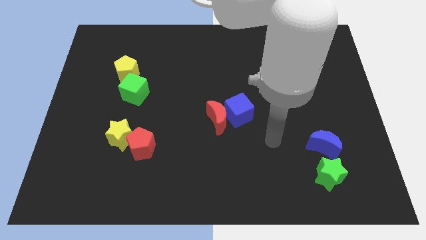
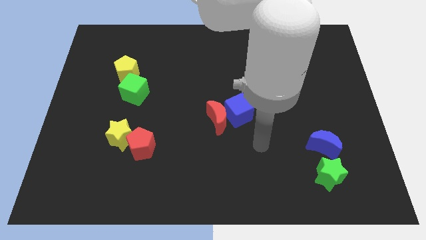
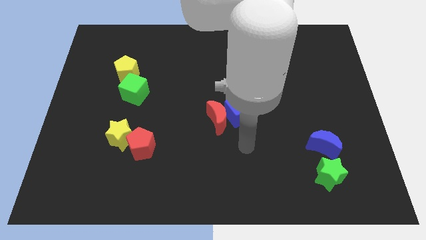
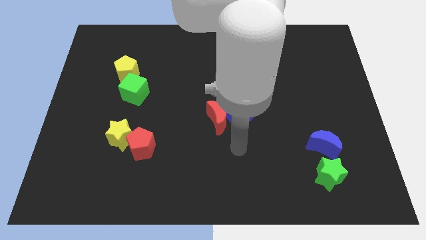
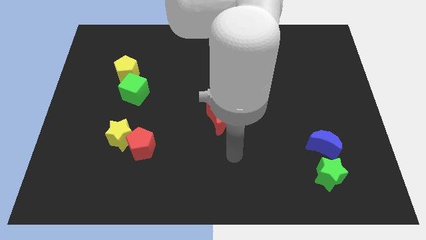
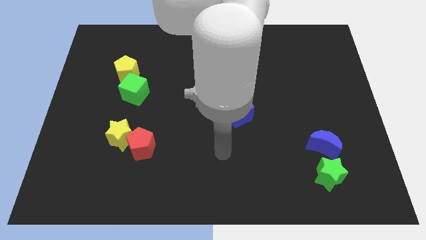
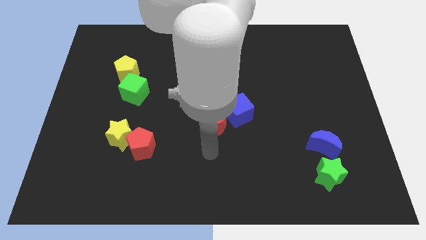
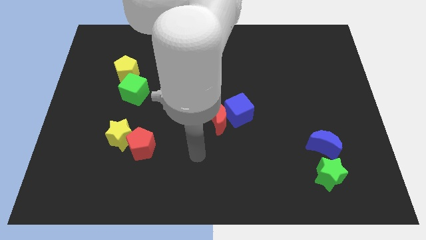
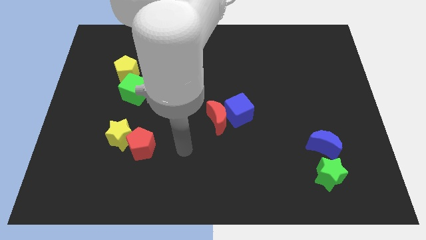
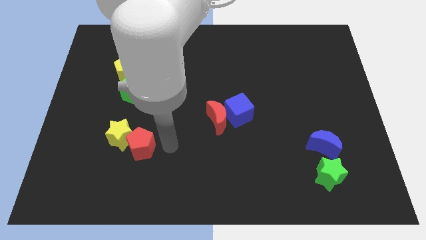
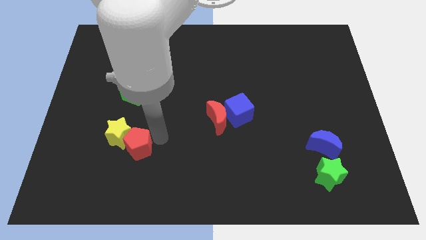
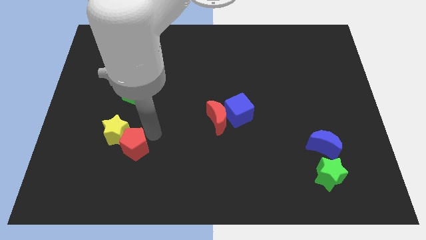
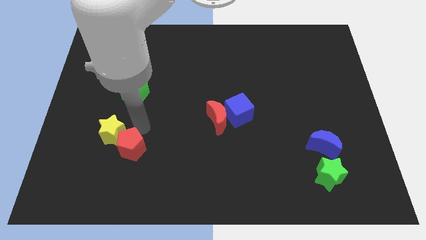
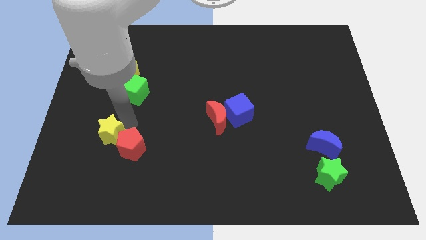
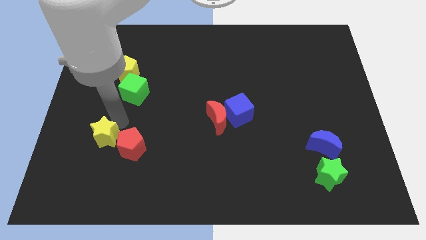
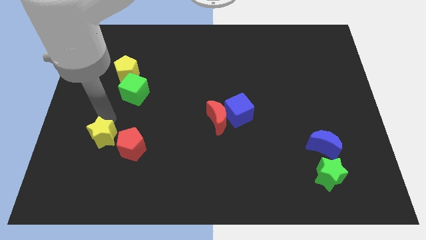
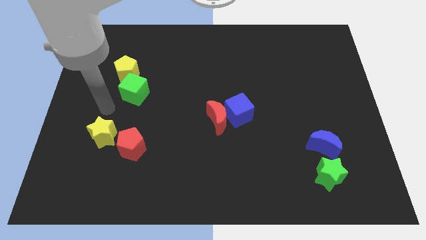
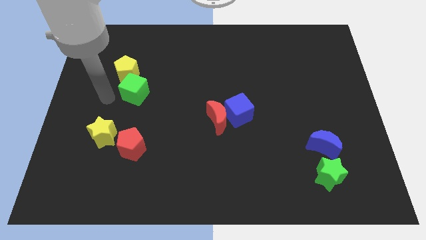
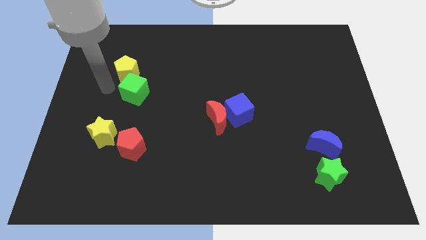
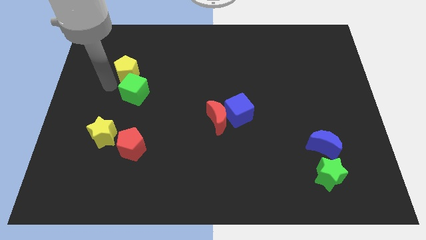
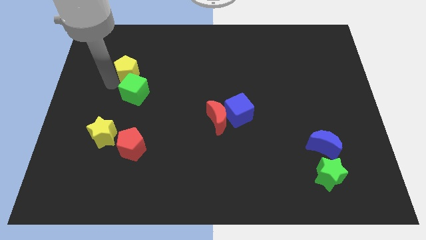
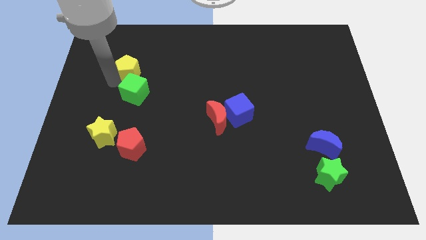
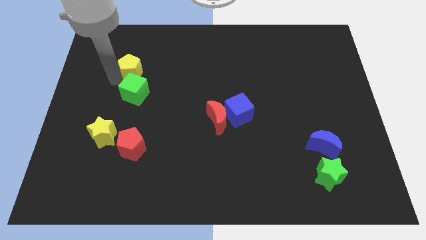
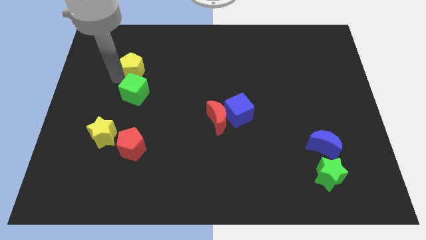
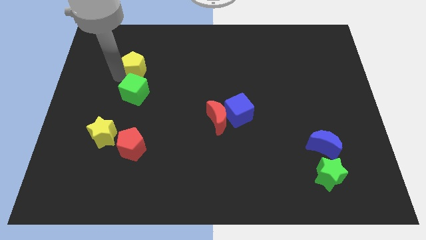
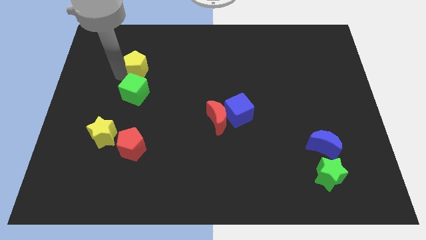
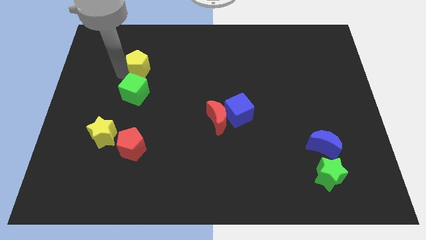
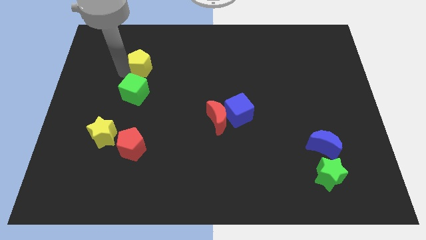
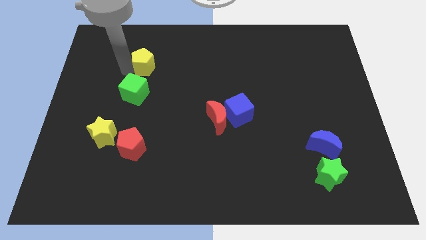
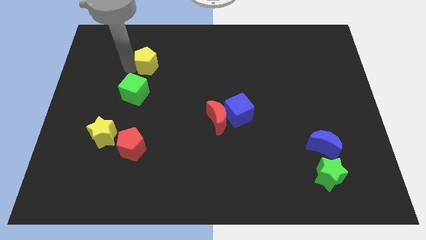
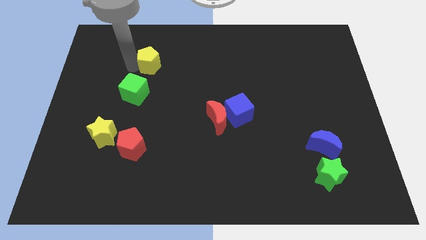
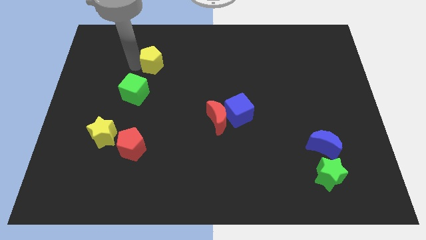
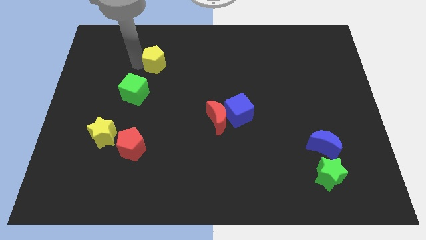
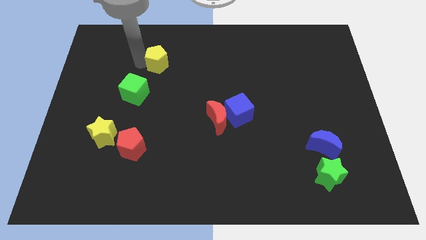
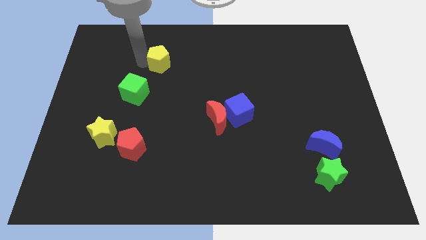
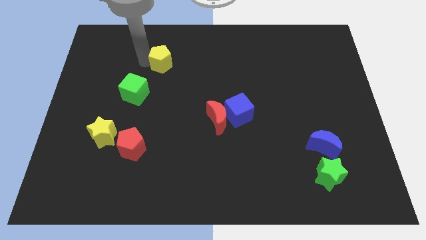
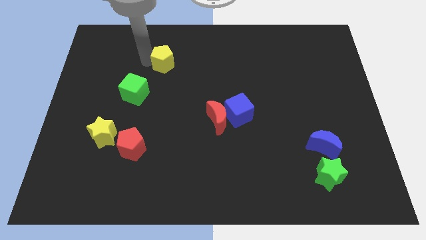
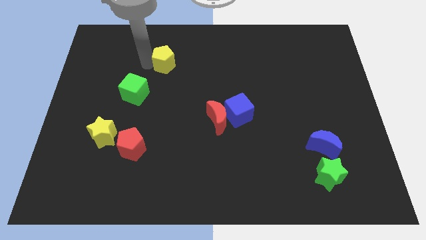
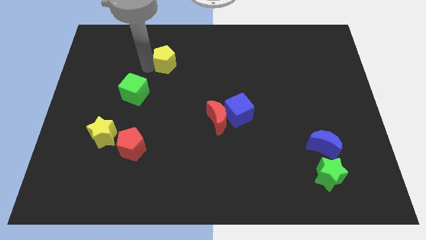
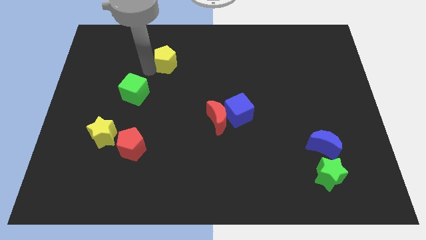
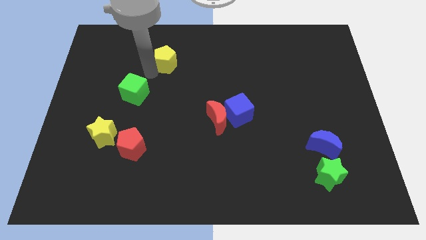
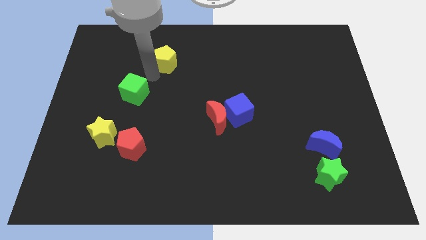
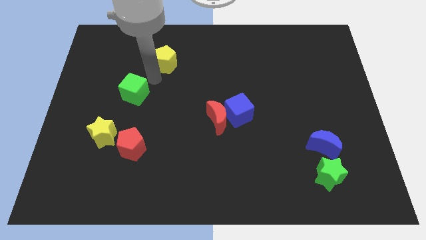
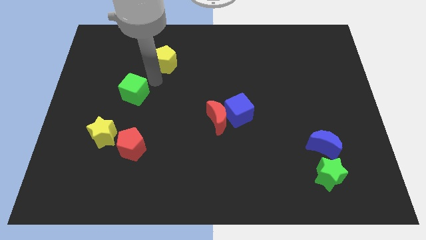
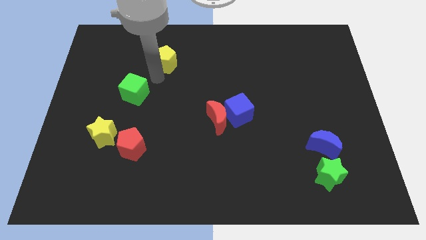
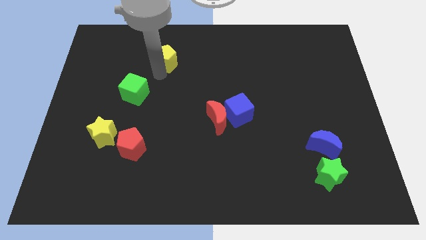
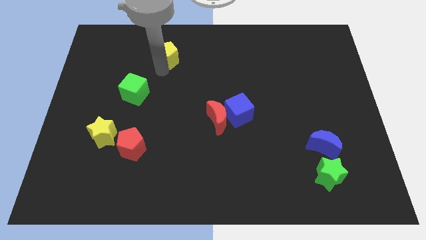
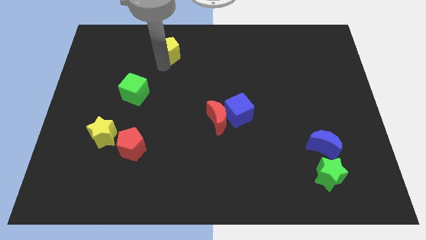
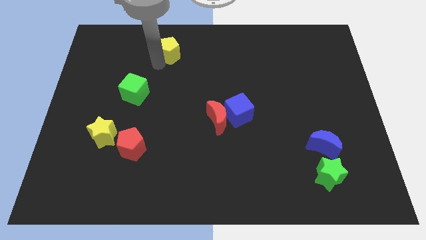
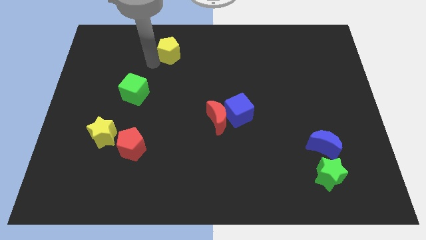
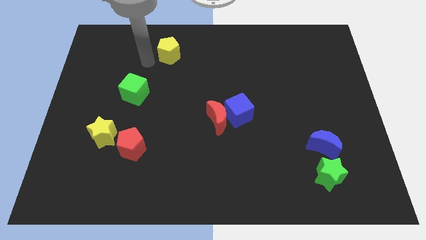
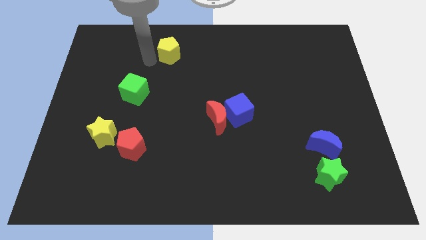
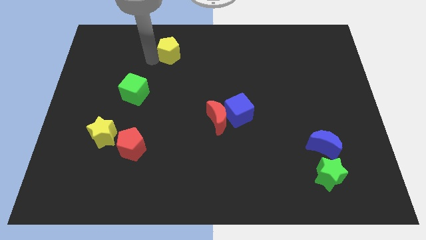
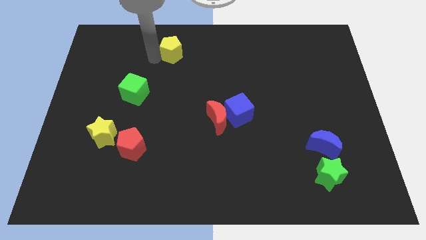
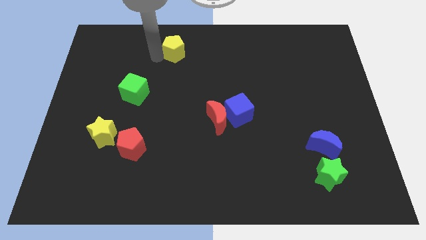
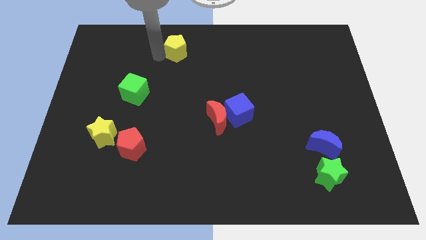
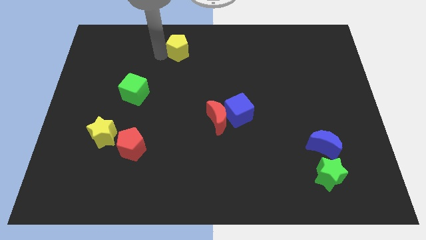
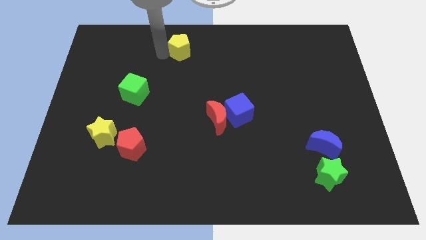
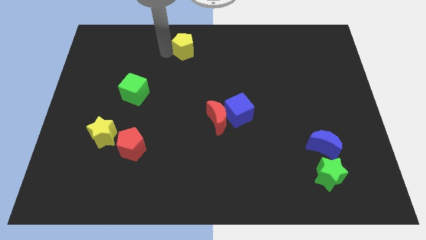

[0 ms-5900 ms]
push the yellow pentagon to the towards your base
